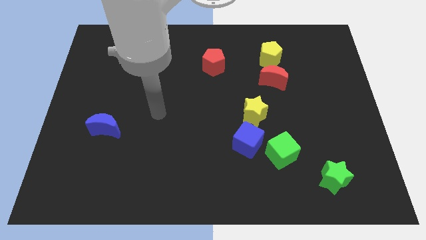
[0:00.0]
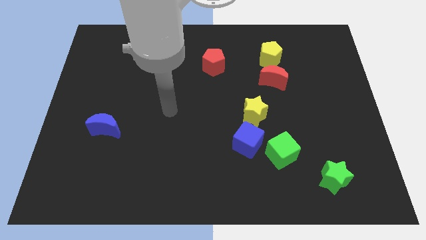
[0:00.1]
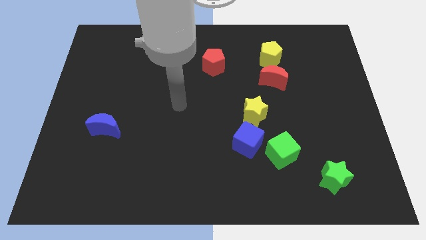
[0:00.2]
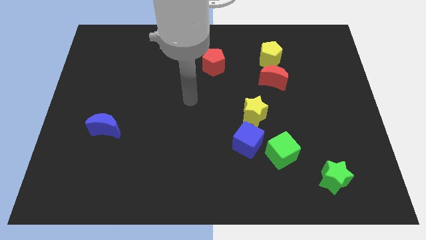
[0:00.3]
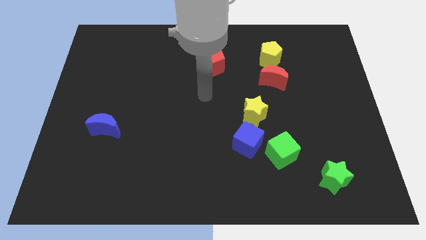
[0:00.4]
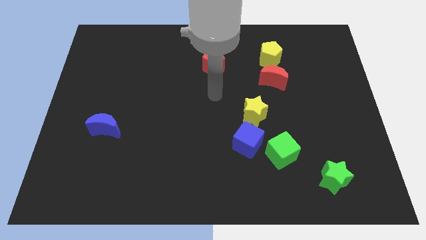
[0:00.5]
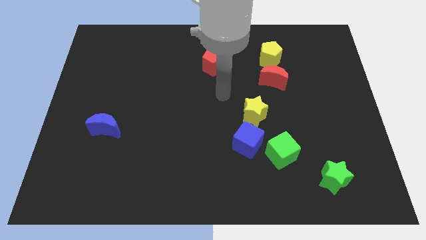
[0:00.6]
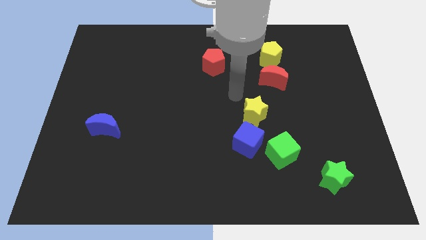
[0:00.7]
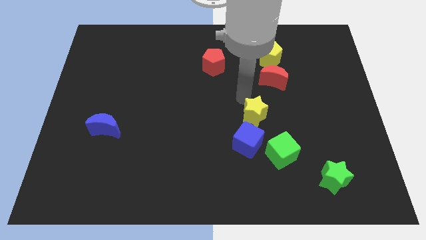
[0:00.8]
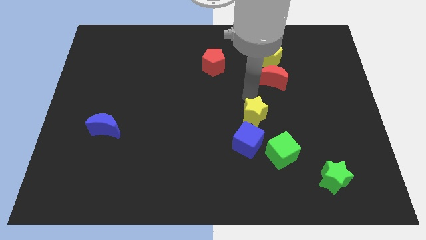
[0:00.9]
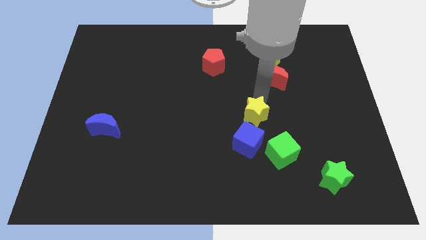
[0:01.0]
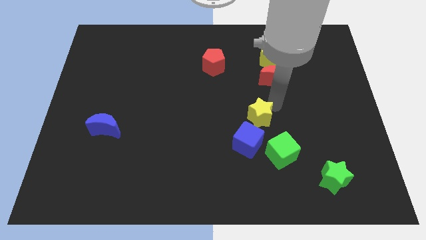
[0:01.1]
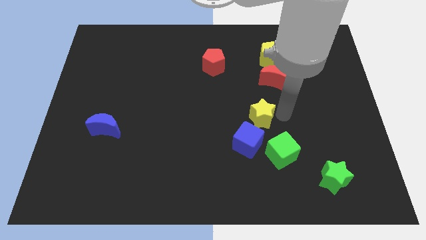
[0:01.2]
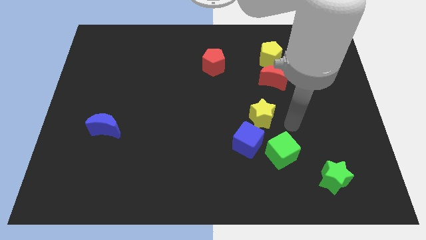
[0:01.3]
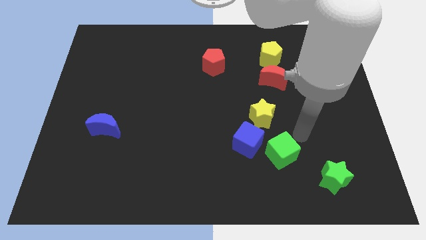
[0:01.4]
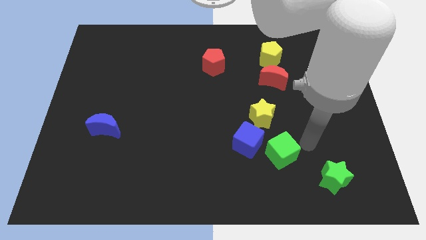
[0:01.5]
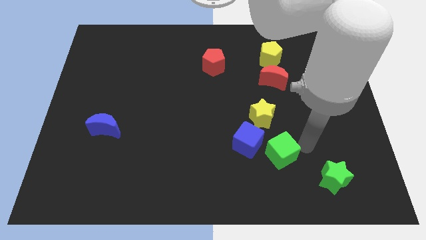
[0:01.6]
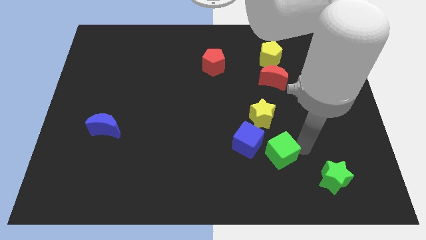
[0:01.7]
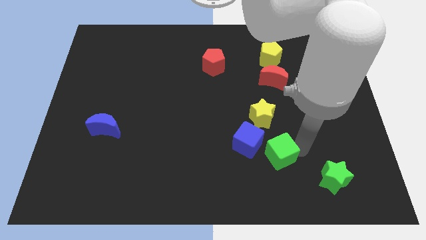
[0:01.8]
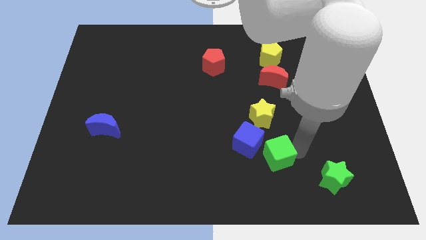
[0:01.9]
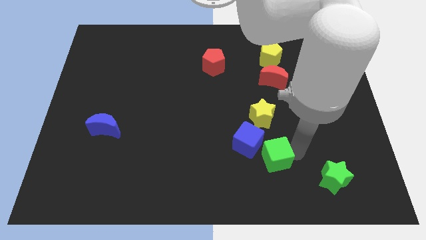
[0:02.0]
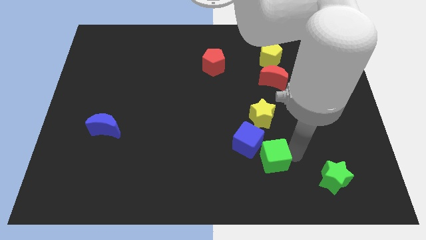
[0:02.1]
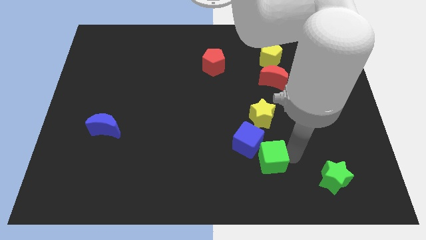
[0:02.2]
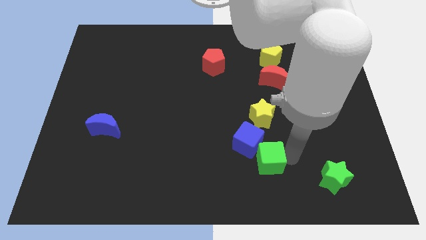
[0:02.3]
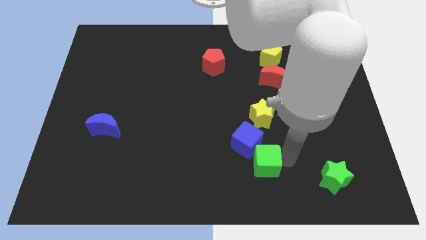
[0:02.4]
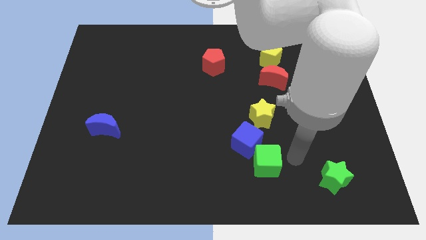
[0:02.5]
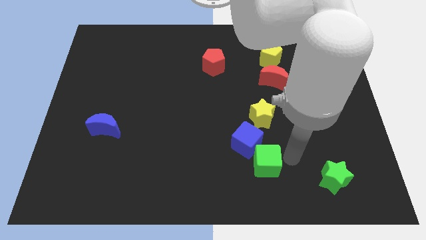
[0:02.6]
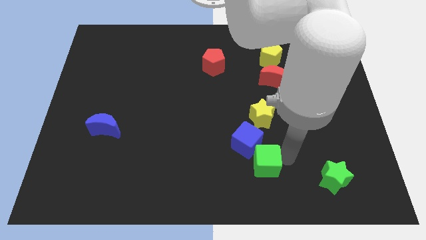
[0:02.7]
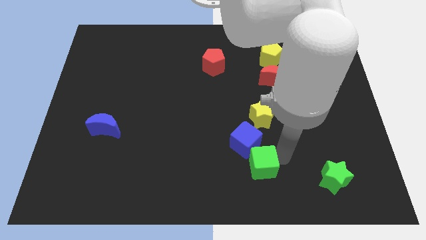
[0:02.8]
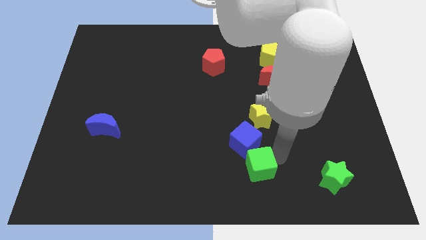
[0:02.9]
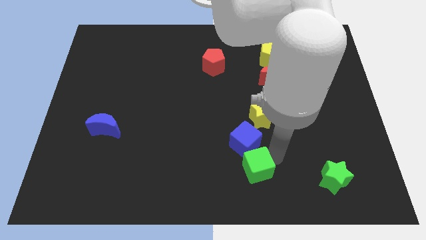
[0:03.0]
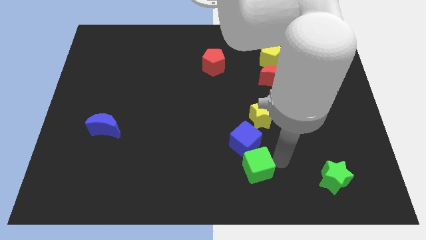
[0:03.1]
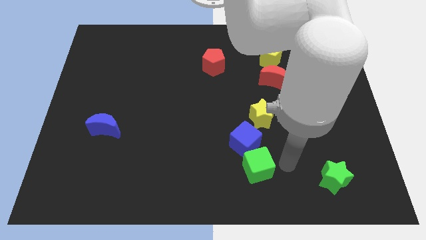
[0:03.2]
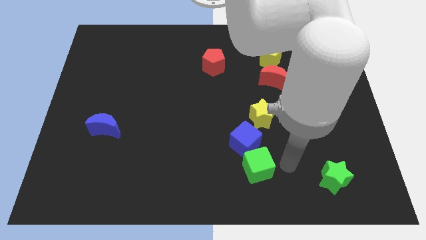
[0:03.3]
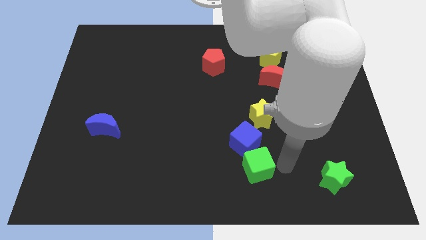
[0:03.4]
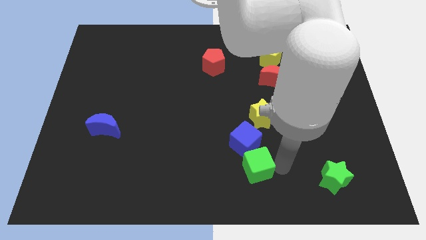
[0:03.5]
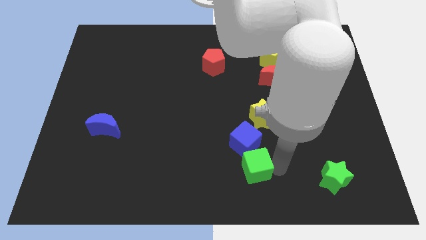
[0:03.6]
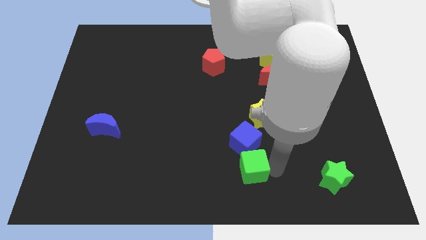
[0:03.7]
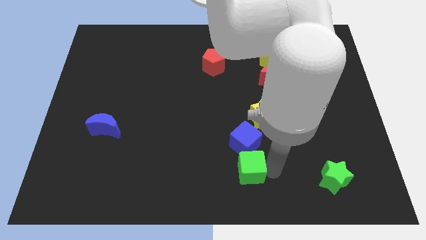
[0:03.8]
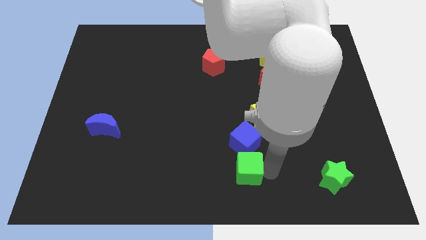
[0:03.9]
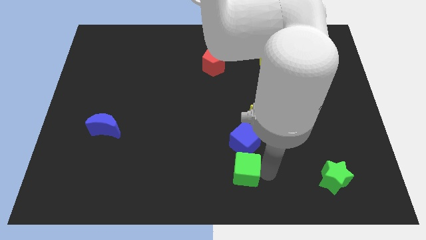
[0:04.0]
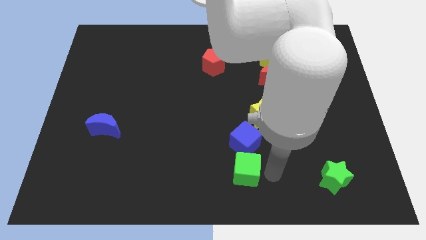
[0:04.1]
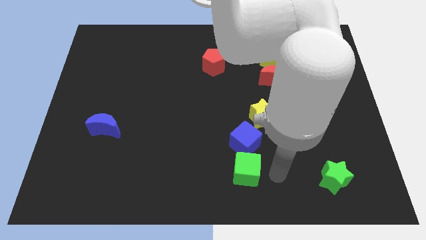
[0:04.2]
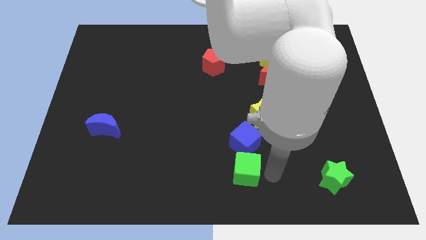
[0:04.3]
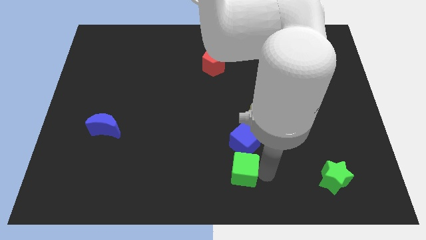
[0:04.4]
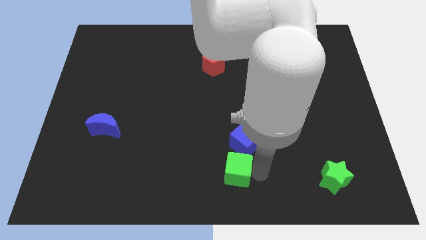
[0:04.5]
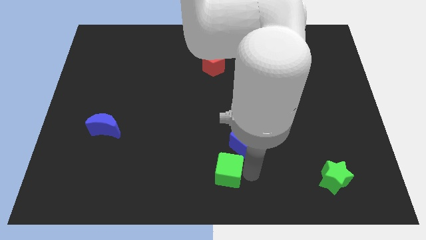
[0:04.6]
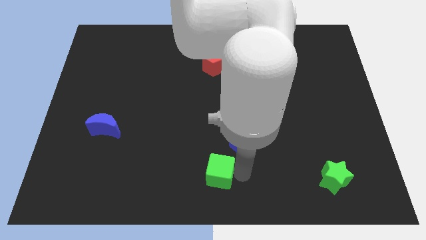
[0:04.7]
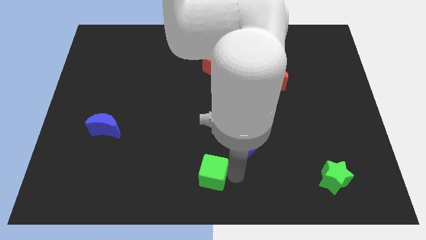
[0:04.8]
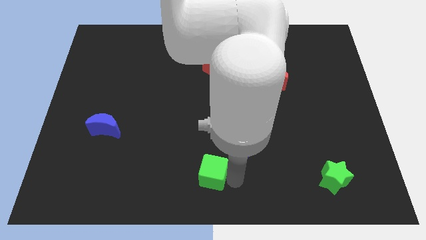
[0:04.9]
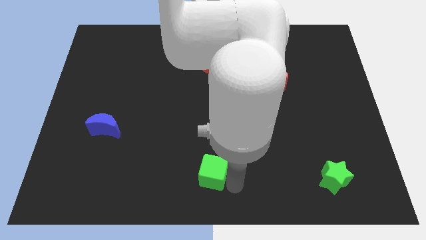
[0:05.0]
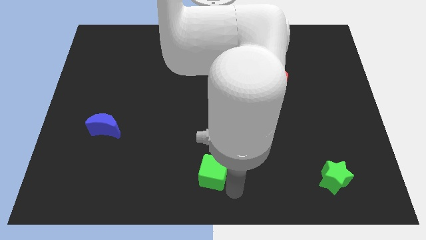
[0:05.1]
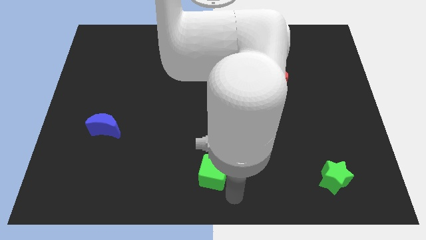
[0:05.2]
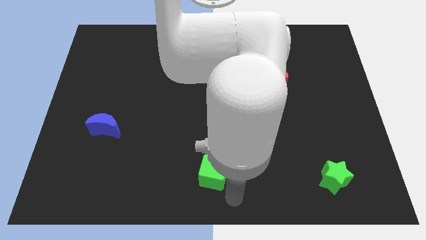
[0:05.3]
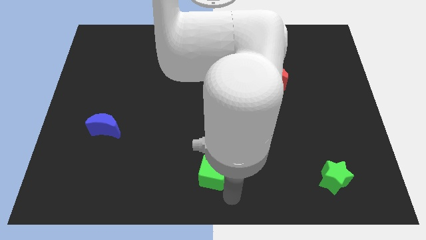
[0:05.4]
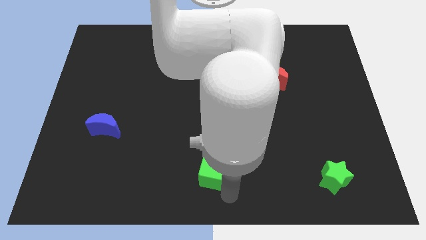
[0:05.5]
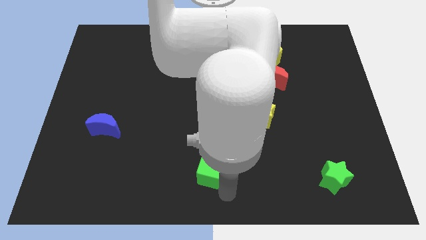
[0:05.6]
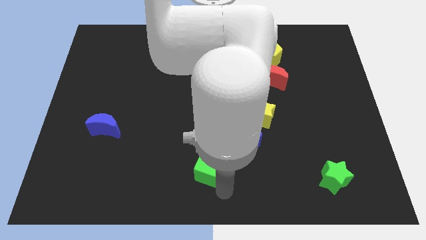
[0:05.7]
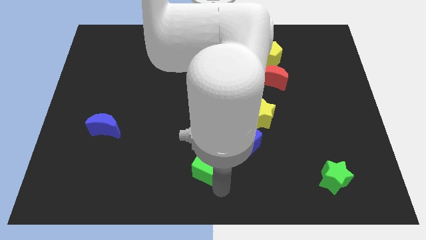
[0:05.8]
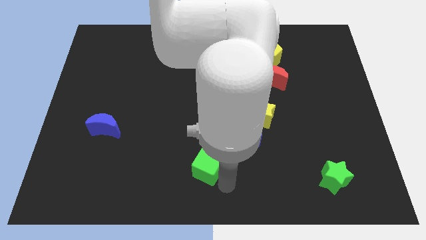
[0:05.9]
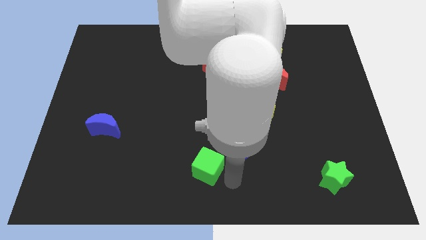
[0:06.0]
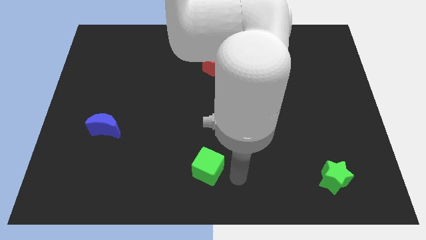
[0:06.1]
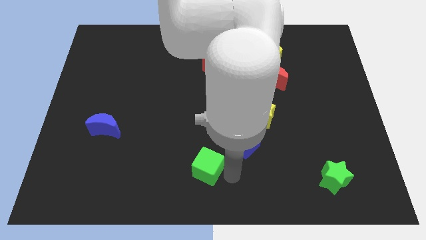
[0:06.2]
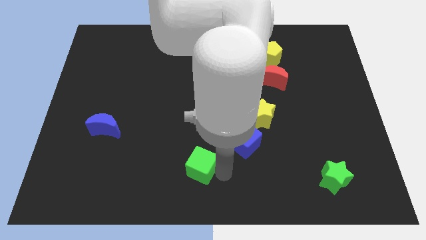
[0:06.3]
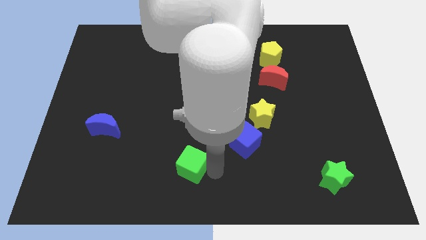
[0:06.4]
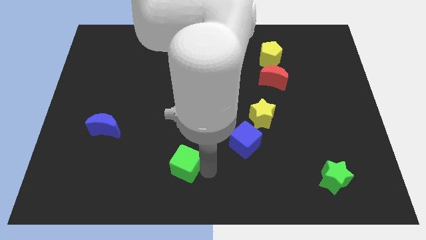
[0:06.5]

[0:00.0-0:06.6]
push the green cube to the left

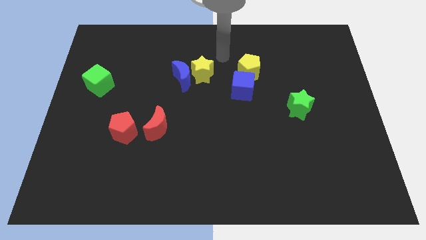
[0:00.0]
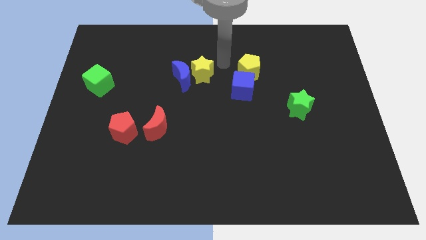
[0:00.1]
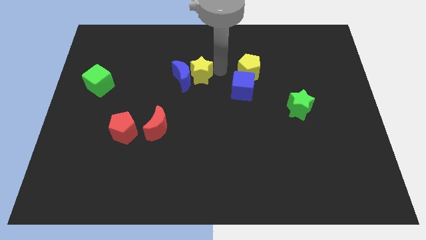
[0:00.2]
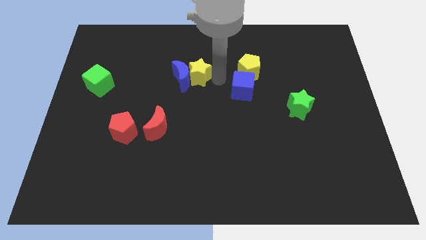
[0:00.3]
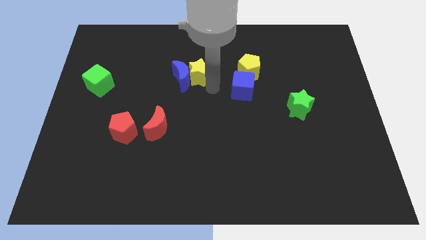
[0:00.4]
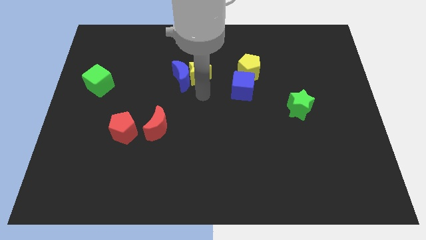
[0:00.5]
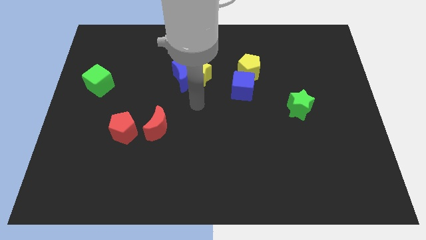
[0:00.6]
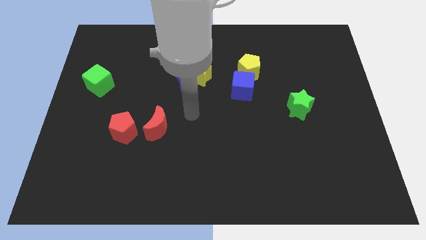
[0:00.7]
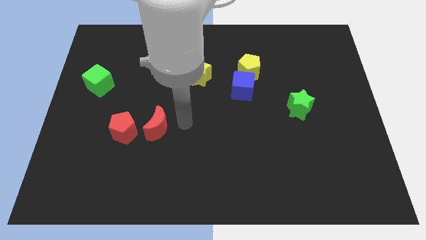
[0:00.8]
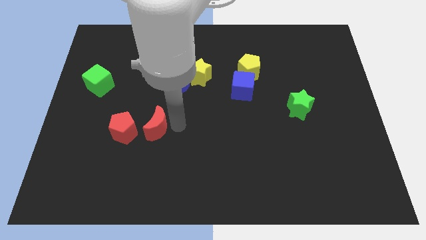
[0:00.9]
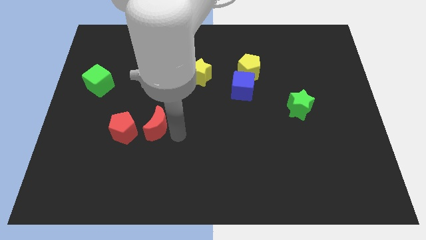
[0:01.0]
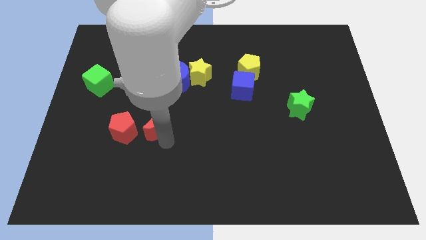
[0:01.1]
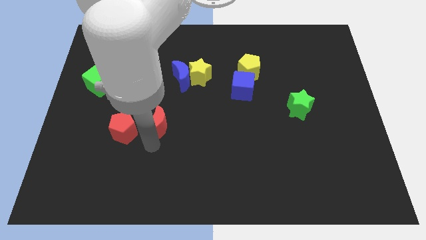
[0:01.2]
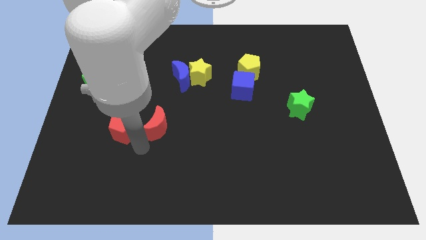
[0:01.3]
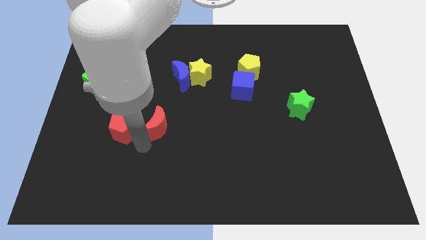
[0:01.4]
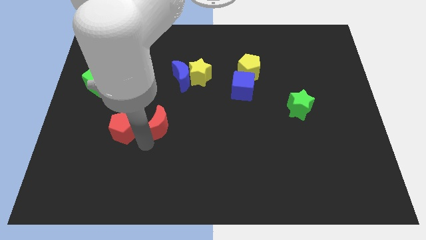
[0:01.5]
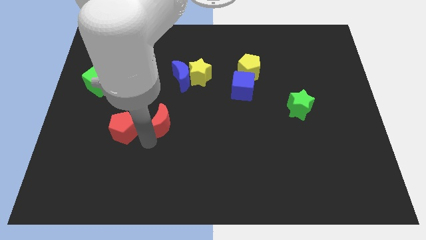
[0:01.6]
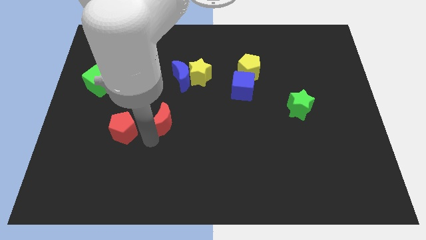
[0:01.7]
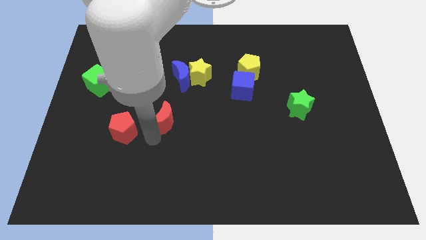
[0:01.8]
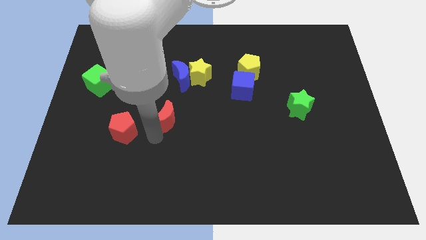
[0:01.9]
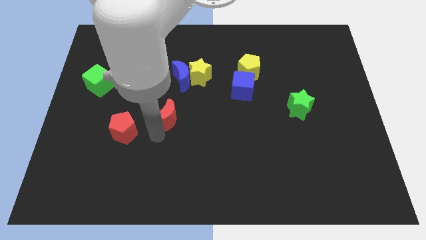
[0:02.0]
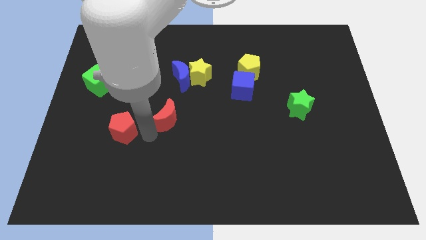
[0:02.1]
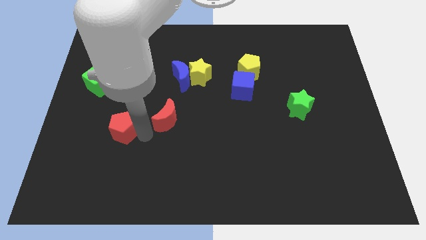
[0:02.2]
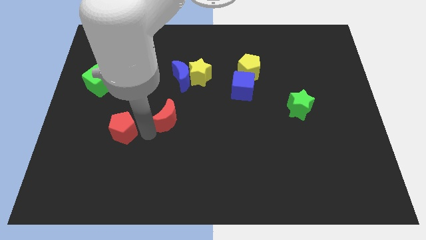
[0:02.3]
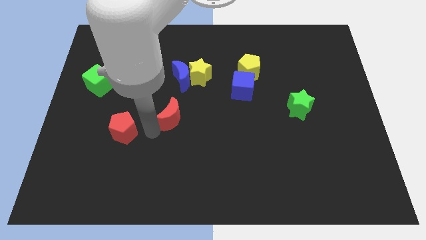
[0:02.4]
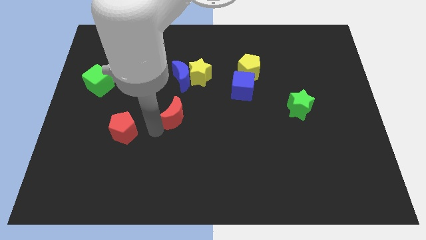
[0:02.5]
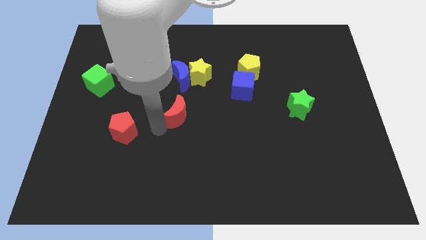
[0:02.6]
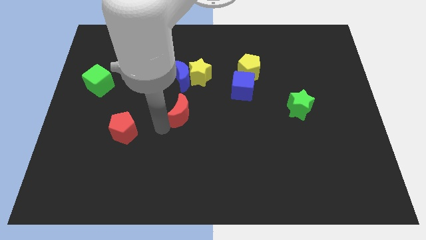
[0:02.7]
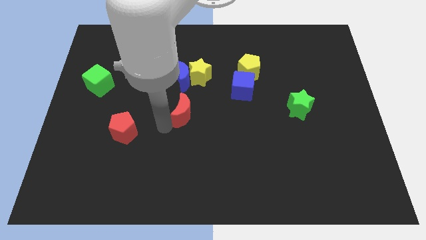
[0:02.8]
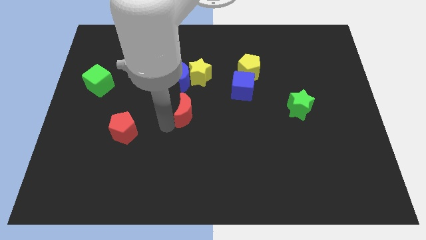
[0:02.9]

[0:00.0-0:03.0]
slide the red moon up and to the right a little
